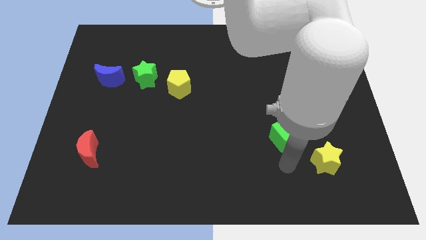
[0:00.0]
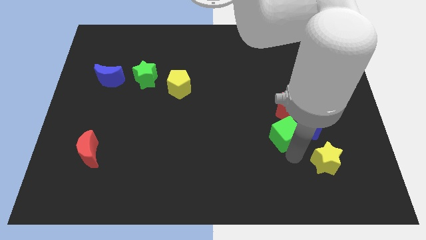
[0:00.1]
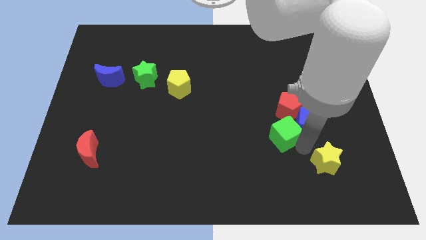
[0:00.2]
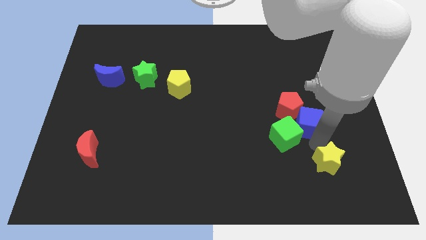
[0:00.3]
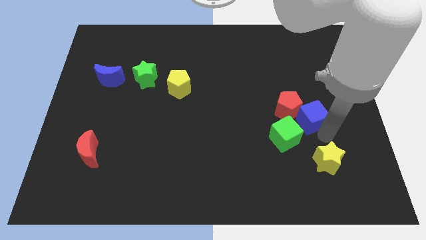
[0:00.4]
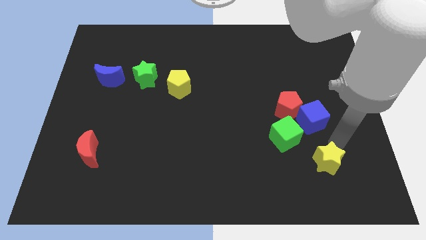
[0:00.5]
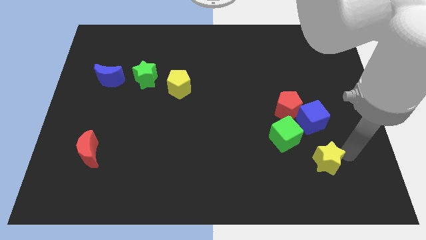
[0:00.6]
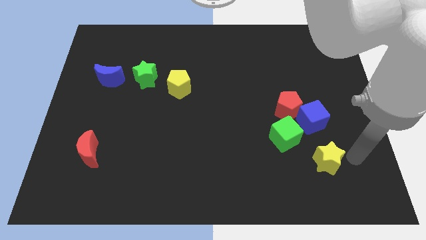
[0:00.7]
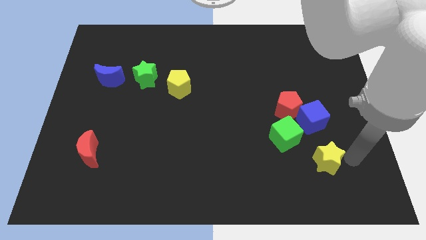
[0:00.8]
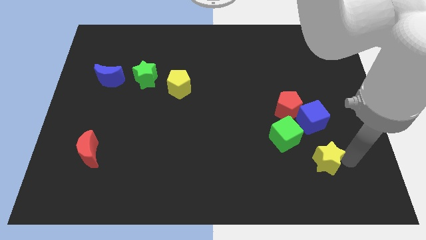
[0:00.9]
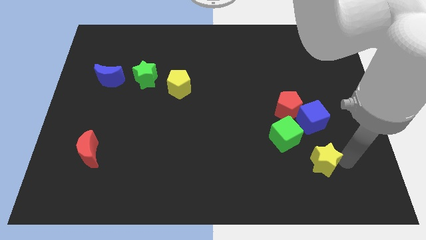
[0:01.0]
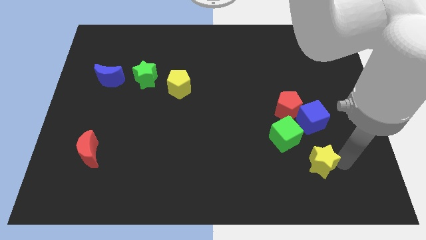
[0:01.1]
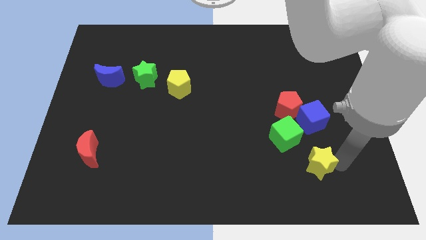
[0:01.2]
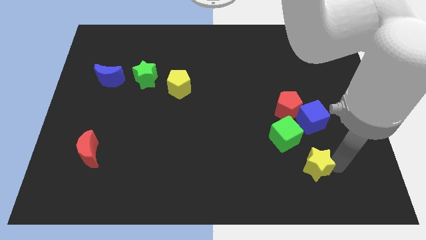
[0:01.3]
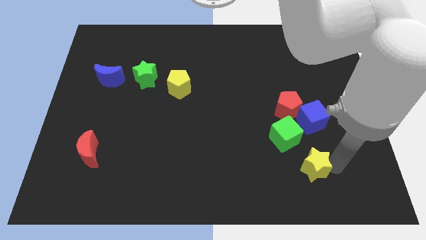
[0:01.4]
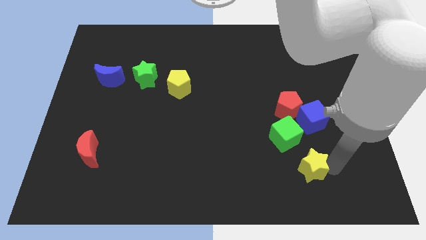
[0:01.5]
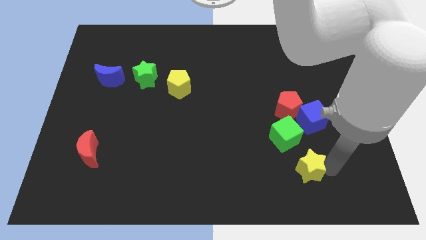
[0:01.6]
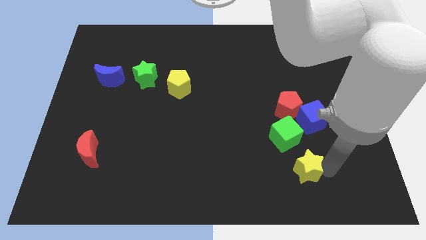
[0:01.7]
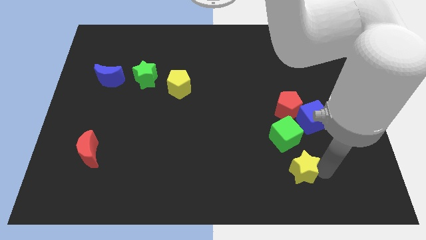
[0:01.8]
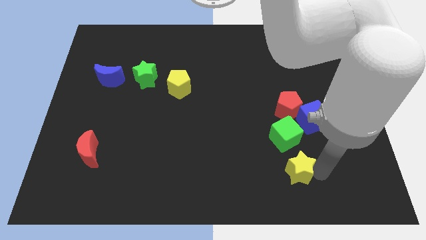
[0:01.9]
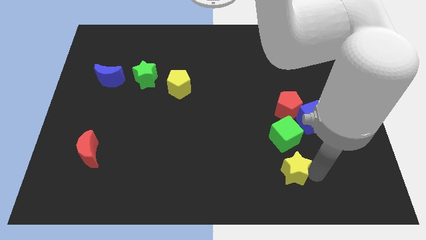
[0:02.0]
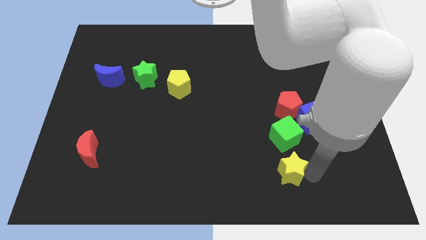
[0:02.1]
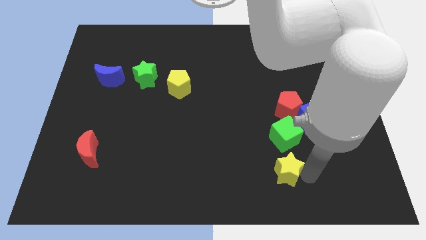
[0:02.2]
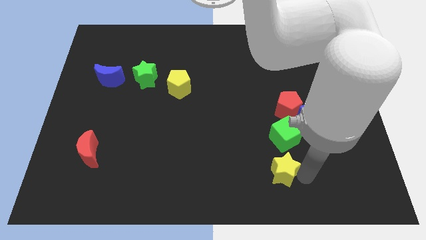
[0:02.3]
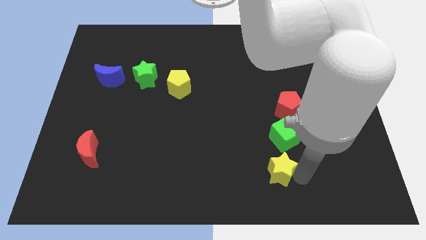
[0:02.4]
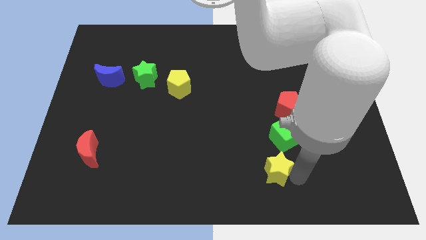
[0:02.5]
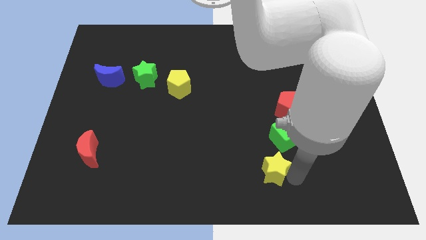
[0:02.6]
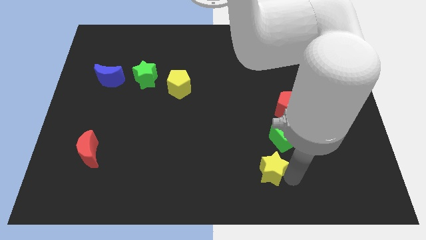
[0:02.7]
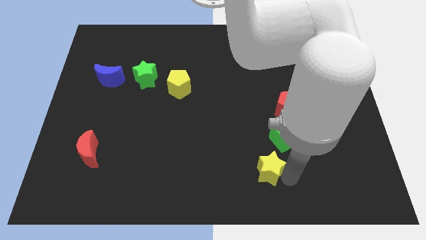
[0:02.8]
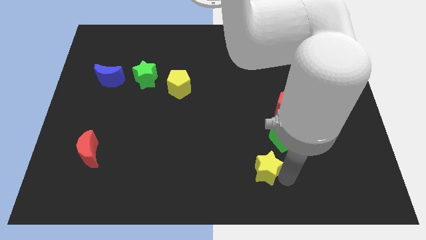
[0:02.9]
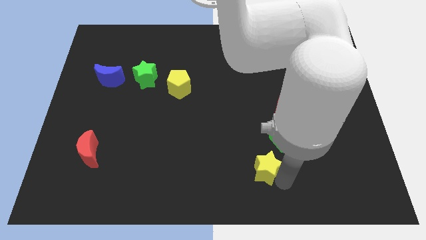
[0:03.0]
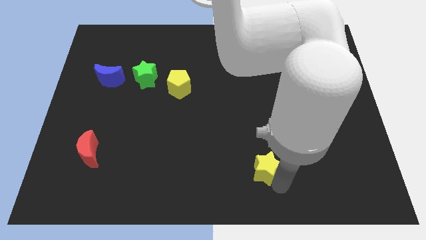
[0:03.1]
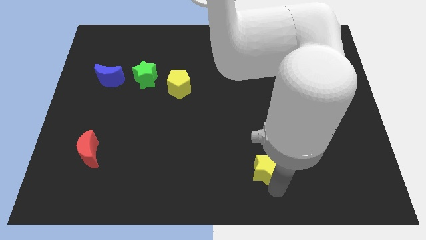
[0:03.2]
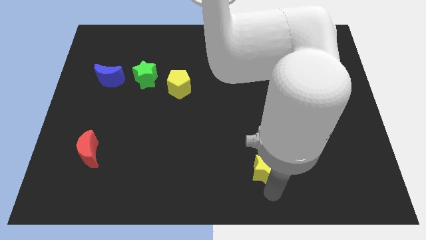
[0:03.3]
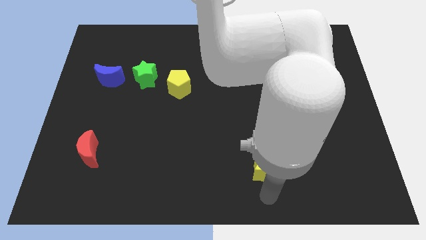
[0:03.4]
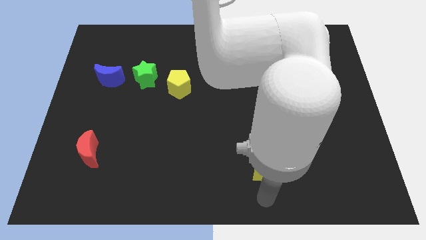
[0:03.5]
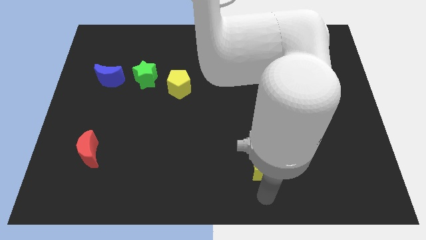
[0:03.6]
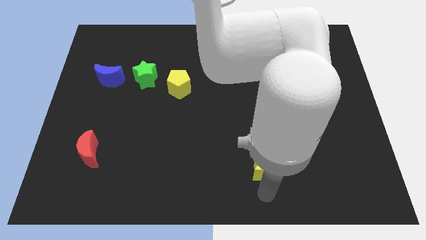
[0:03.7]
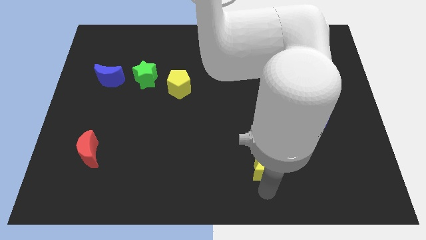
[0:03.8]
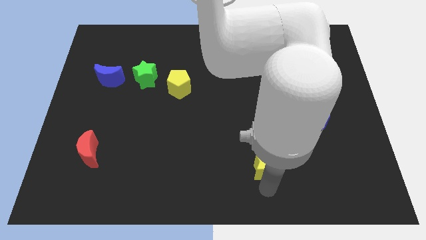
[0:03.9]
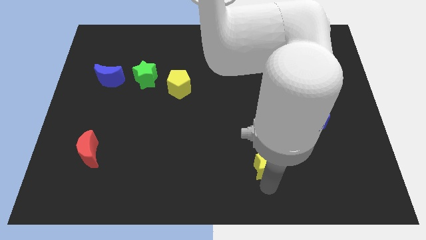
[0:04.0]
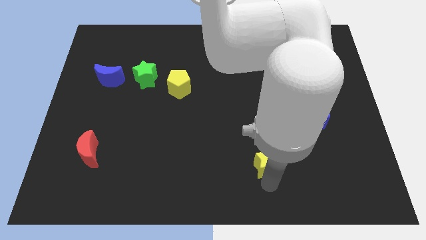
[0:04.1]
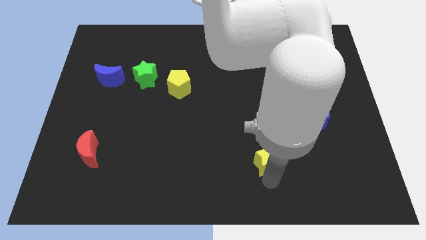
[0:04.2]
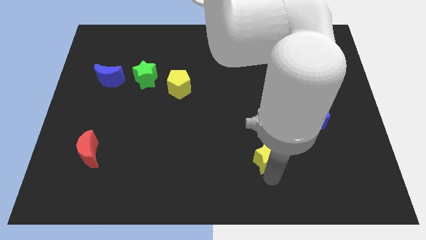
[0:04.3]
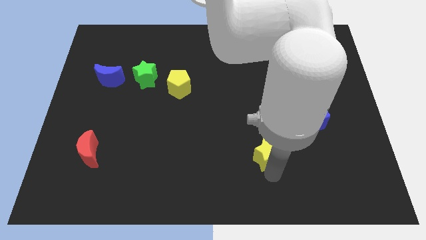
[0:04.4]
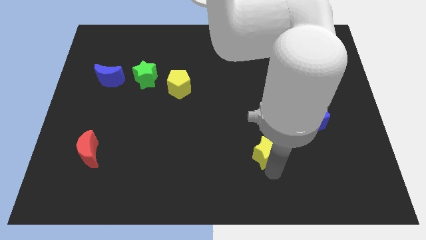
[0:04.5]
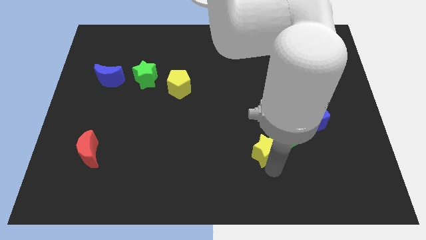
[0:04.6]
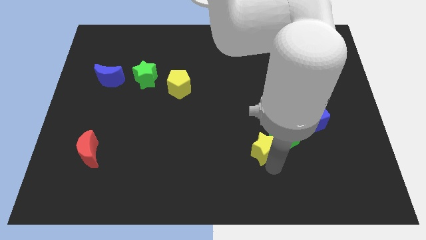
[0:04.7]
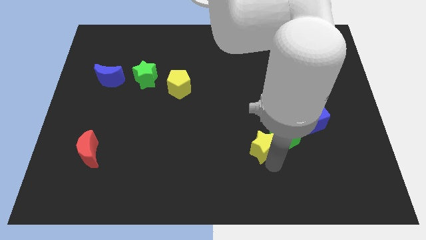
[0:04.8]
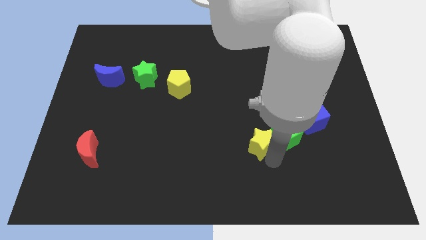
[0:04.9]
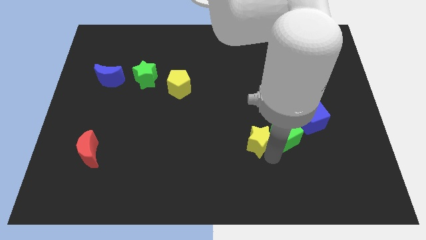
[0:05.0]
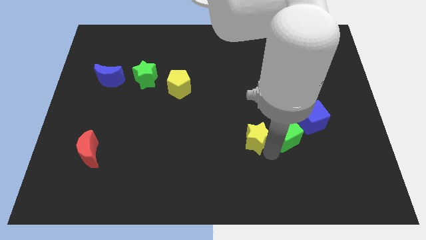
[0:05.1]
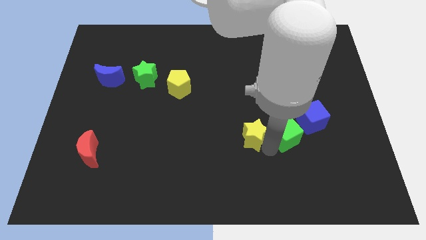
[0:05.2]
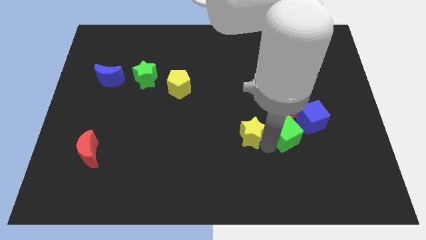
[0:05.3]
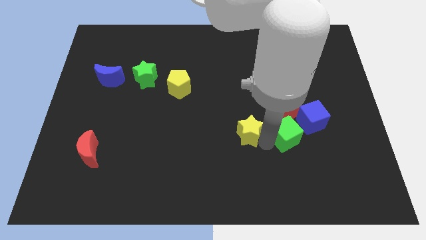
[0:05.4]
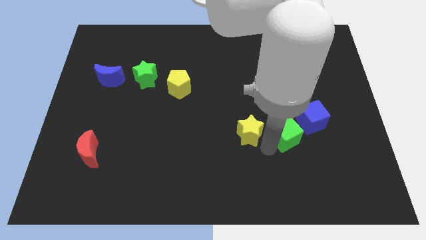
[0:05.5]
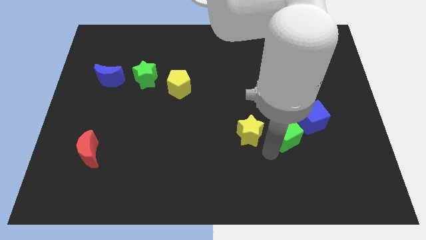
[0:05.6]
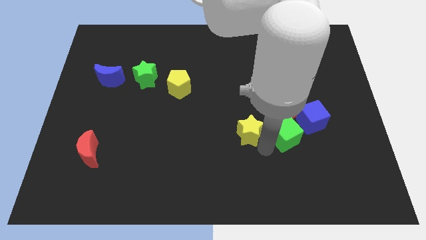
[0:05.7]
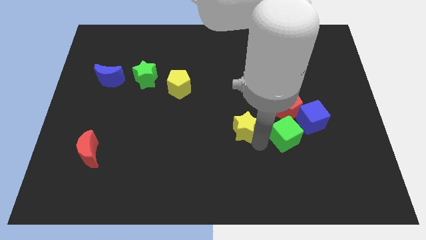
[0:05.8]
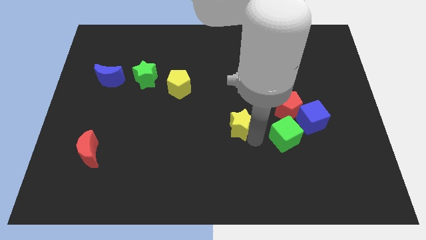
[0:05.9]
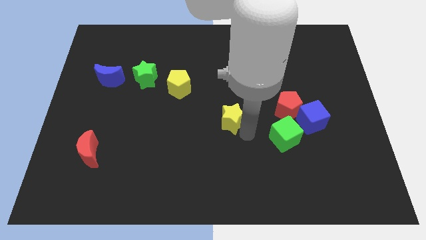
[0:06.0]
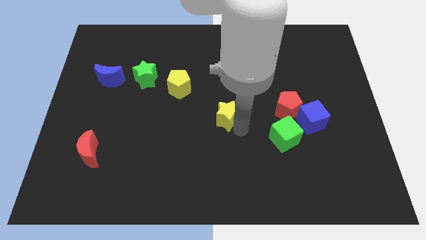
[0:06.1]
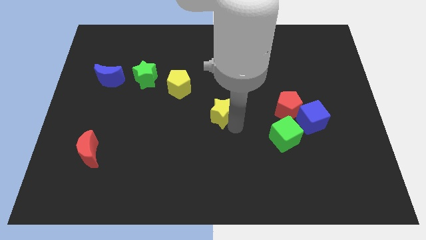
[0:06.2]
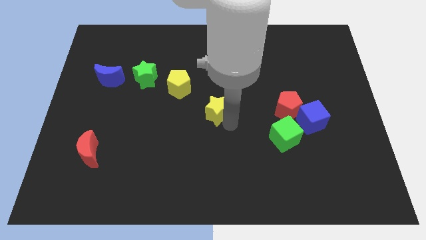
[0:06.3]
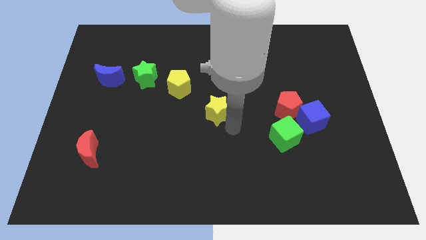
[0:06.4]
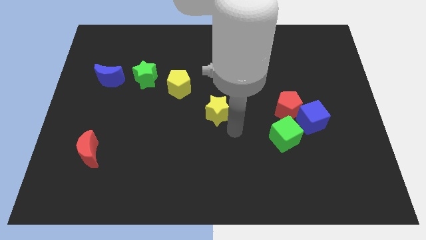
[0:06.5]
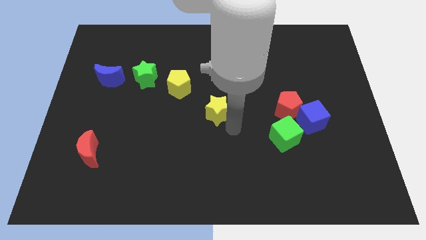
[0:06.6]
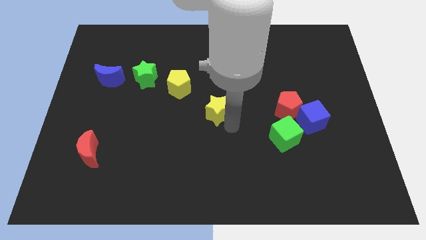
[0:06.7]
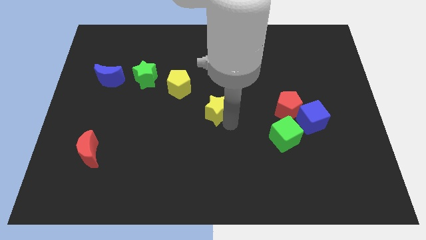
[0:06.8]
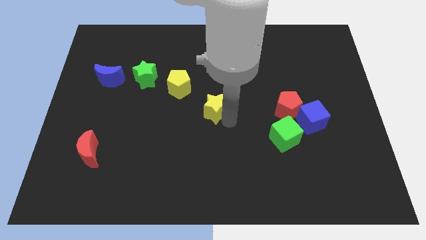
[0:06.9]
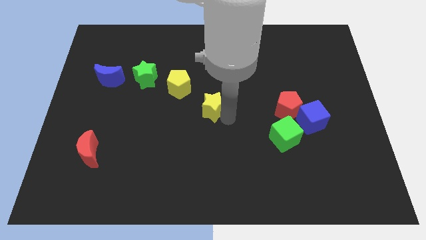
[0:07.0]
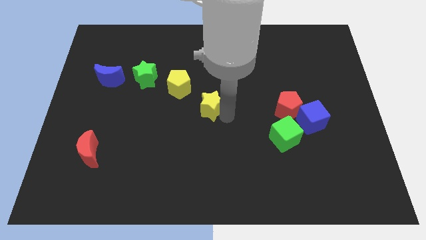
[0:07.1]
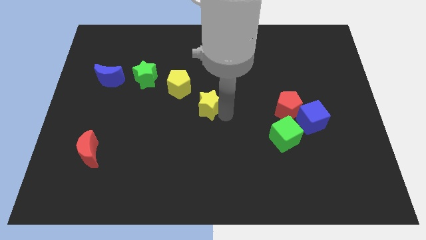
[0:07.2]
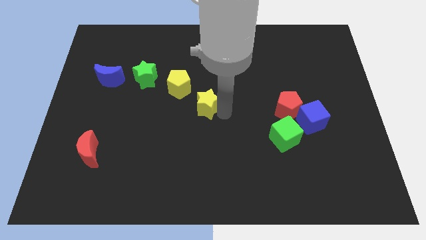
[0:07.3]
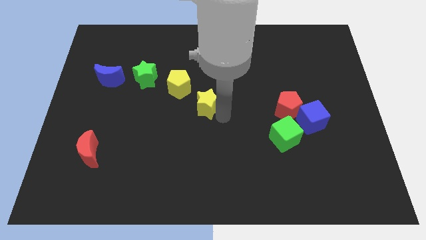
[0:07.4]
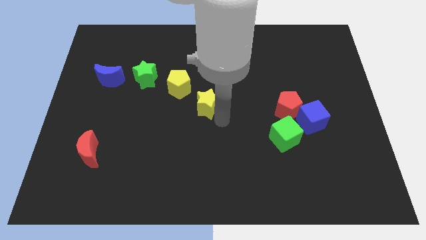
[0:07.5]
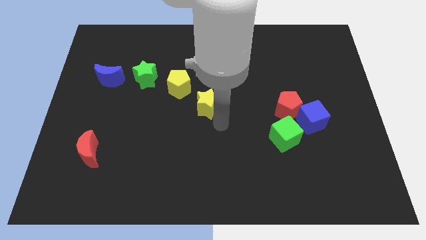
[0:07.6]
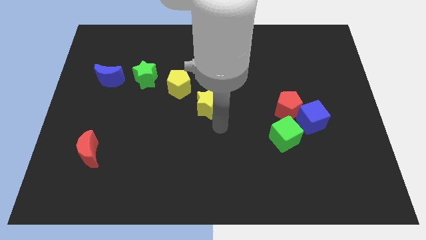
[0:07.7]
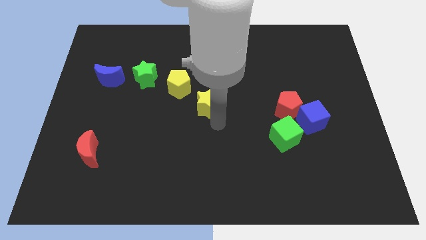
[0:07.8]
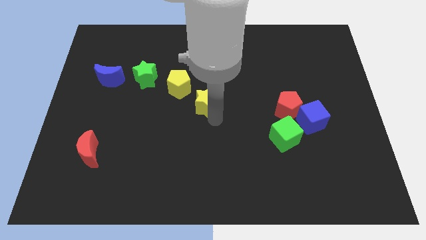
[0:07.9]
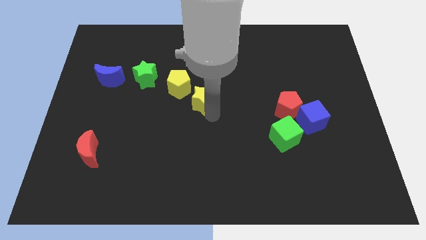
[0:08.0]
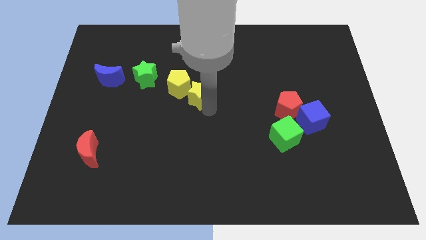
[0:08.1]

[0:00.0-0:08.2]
push the yellow star towards the yellow pentagon
